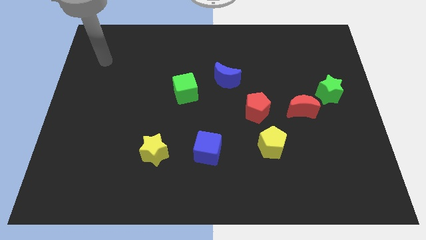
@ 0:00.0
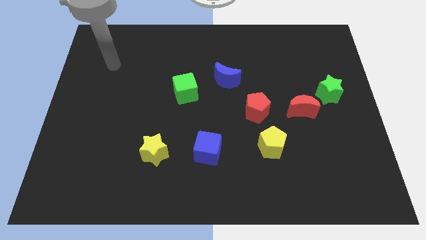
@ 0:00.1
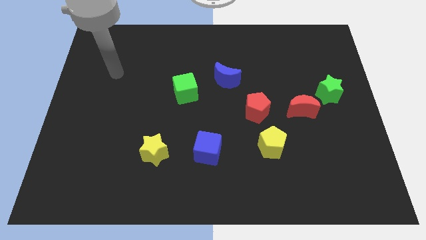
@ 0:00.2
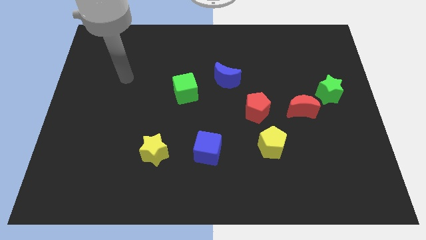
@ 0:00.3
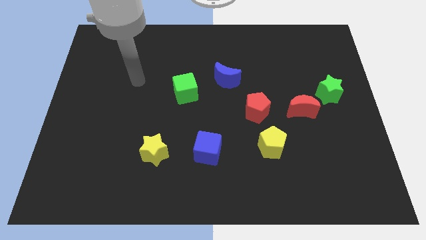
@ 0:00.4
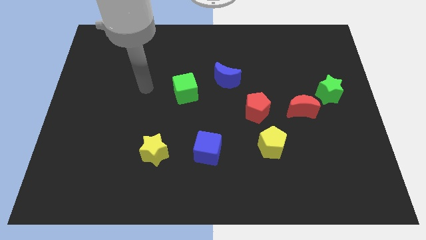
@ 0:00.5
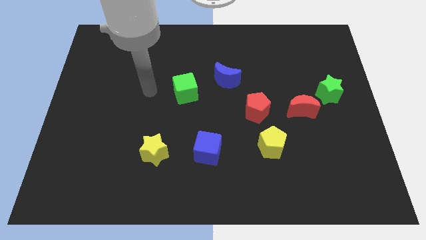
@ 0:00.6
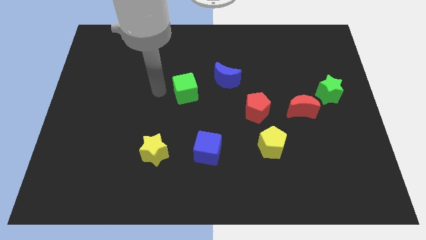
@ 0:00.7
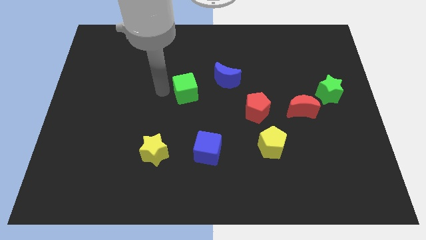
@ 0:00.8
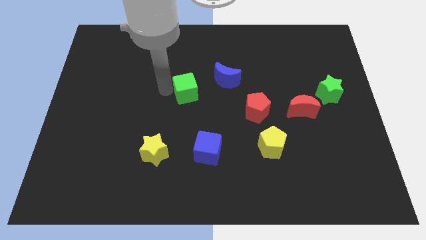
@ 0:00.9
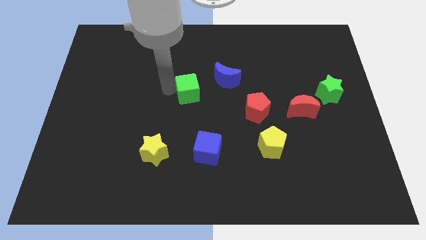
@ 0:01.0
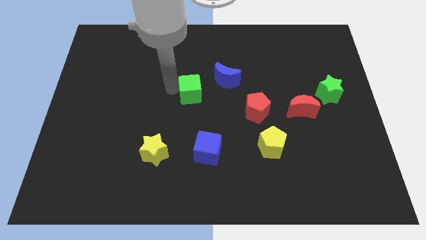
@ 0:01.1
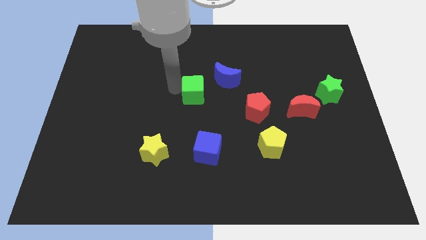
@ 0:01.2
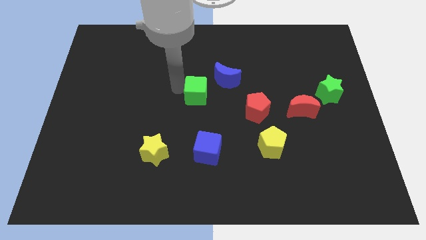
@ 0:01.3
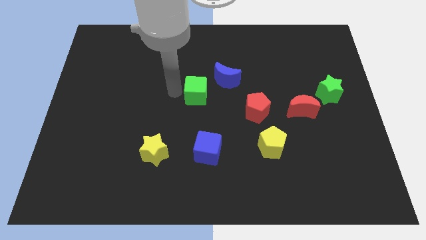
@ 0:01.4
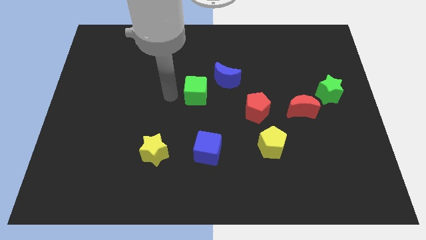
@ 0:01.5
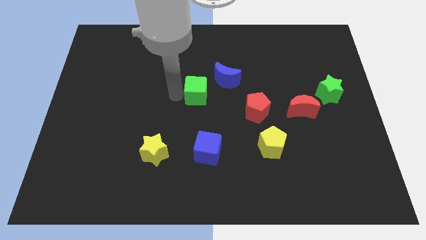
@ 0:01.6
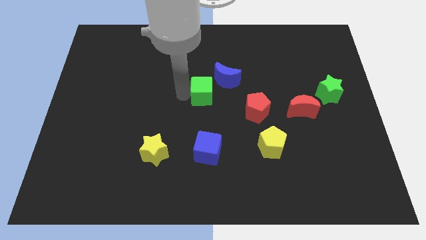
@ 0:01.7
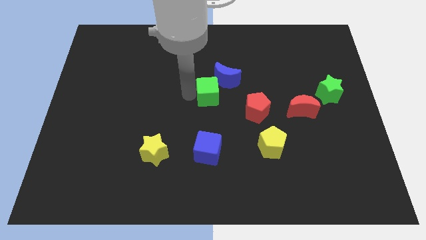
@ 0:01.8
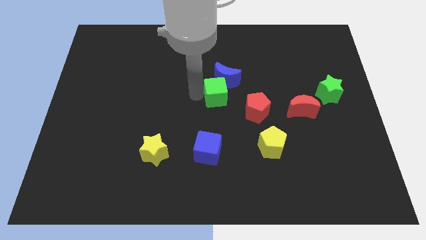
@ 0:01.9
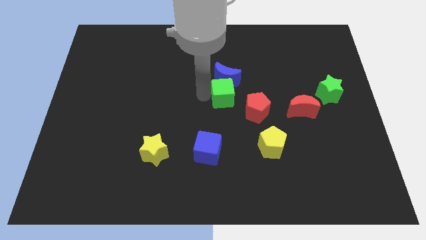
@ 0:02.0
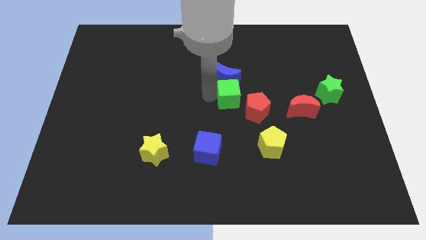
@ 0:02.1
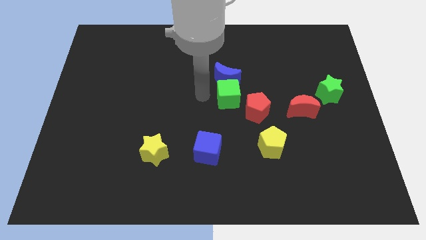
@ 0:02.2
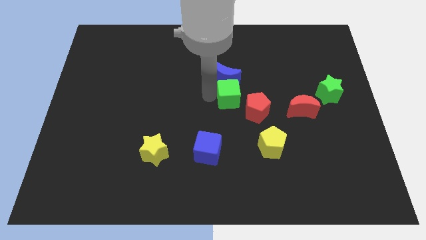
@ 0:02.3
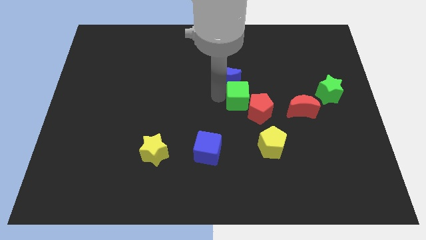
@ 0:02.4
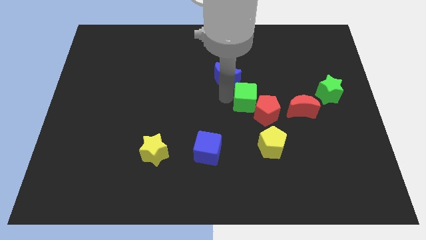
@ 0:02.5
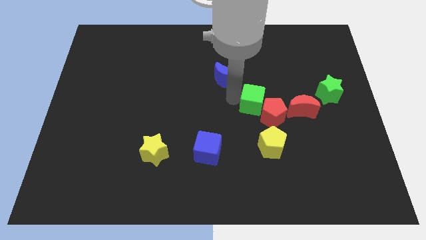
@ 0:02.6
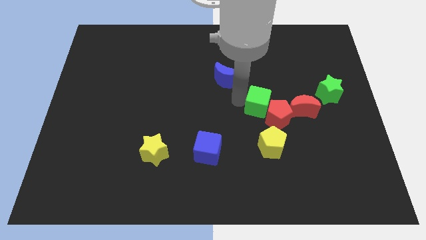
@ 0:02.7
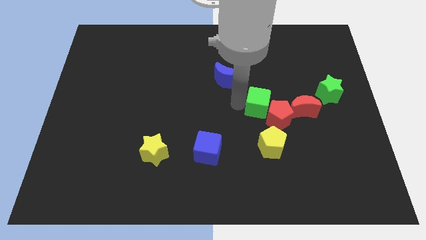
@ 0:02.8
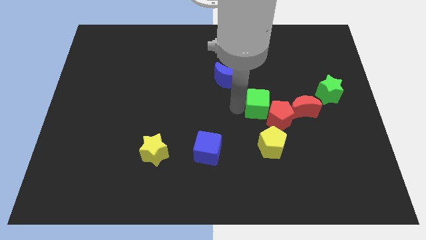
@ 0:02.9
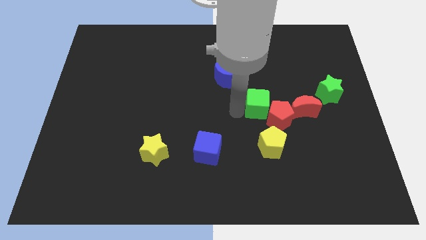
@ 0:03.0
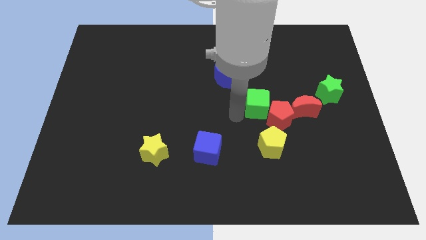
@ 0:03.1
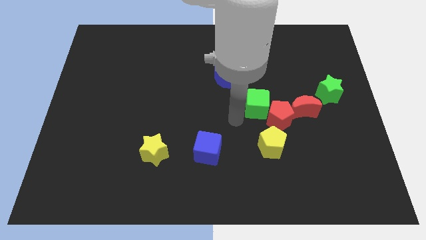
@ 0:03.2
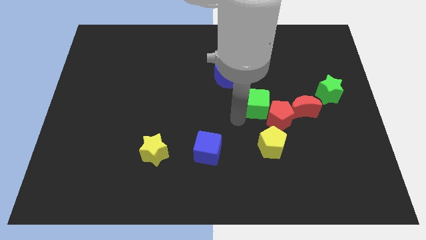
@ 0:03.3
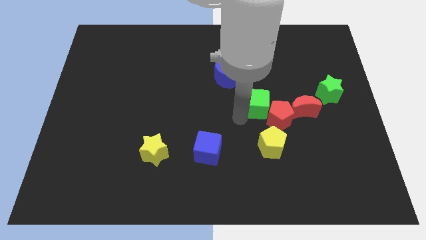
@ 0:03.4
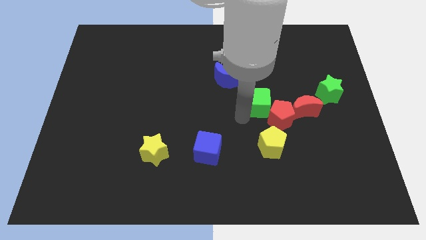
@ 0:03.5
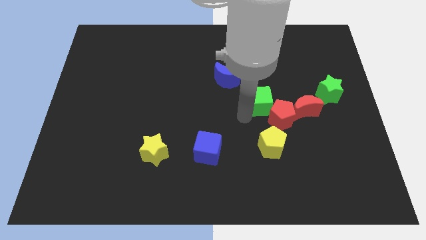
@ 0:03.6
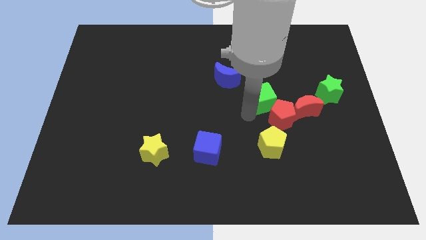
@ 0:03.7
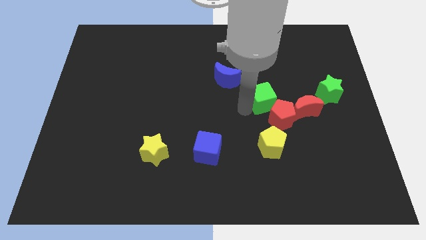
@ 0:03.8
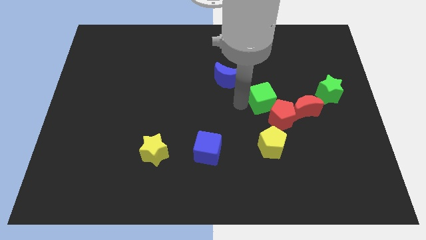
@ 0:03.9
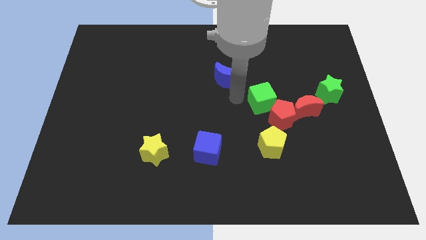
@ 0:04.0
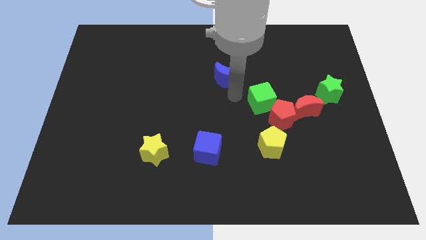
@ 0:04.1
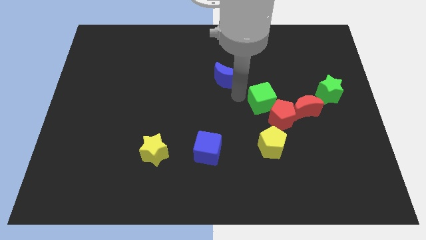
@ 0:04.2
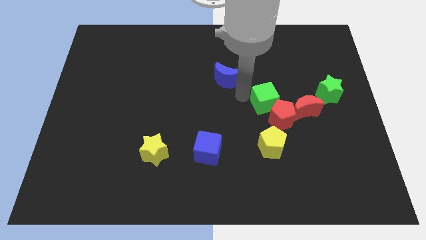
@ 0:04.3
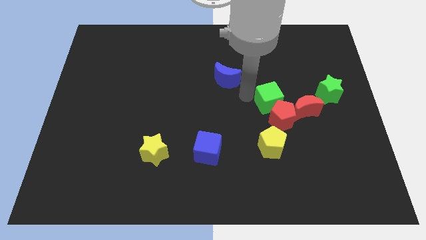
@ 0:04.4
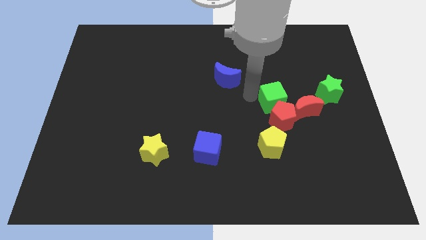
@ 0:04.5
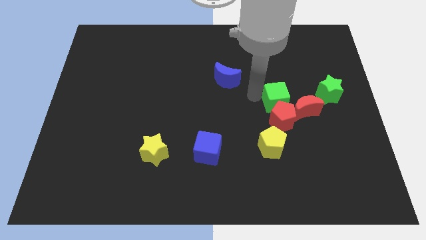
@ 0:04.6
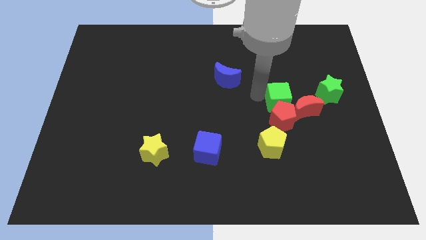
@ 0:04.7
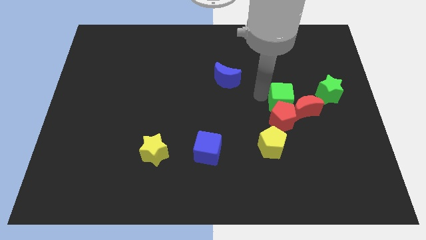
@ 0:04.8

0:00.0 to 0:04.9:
push the green cube next to the red moon

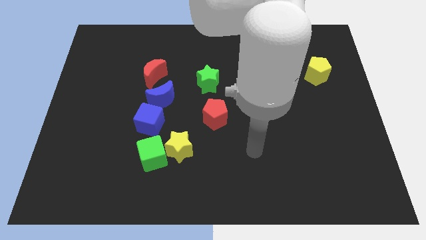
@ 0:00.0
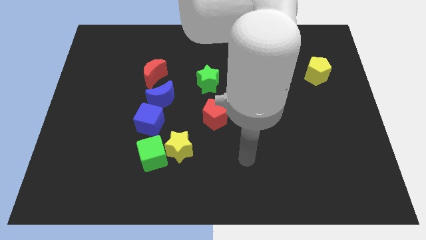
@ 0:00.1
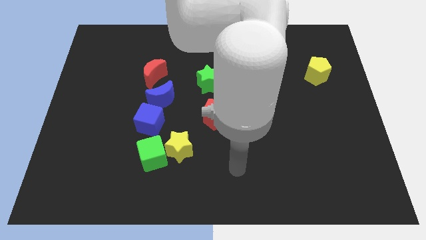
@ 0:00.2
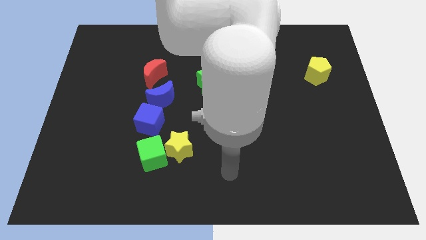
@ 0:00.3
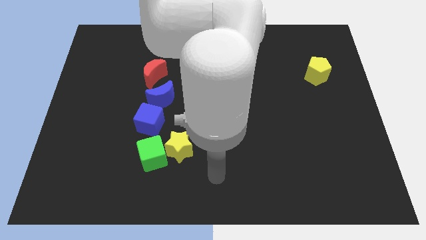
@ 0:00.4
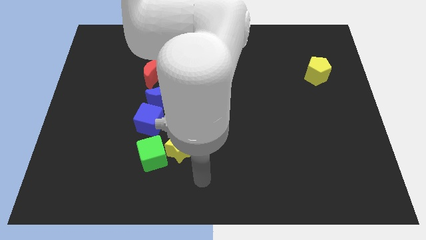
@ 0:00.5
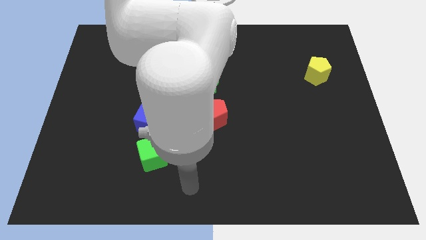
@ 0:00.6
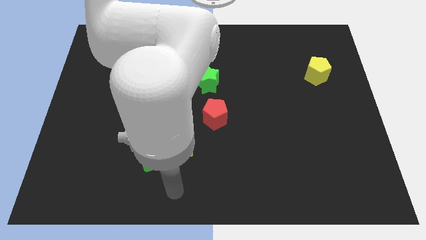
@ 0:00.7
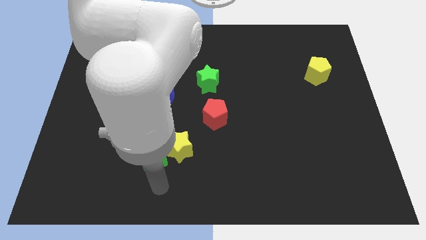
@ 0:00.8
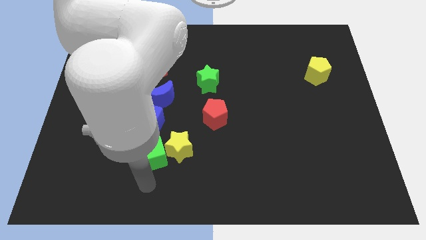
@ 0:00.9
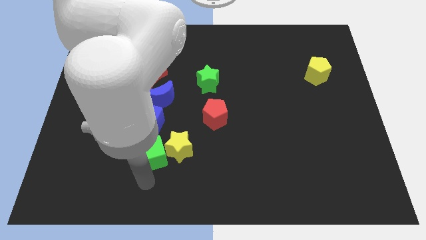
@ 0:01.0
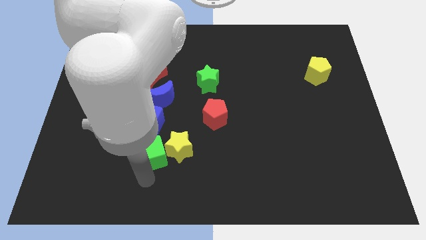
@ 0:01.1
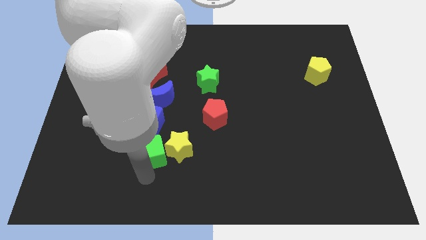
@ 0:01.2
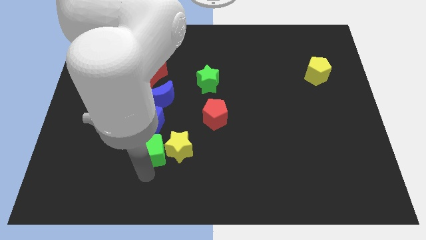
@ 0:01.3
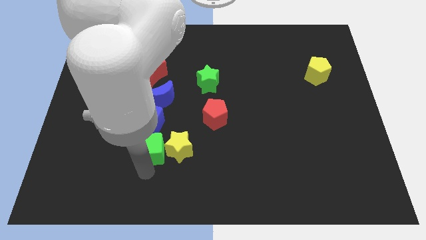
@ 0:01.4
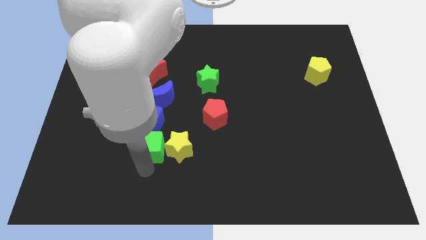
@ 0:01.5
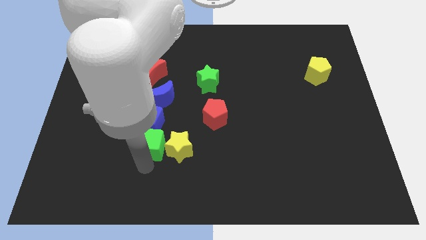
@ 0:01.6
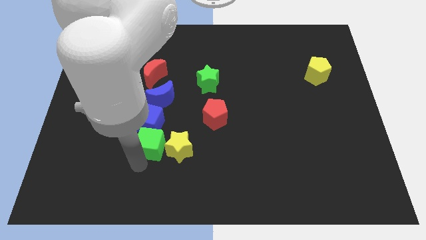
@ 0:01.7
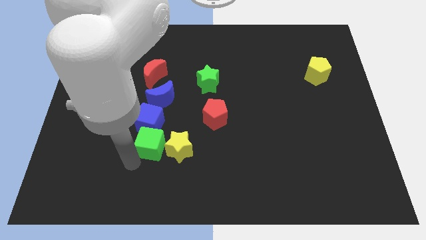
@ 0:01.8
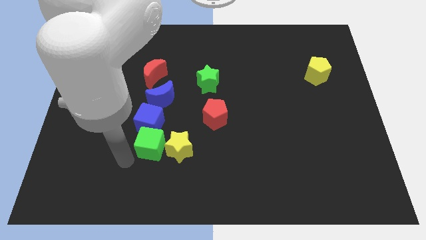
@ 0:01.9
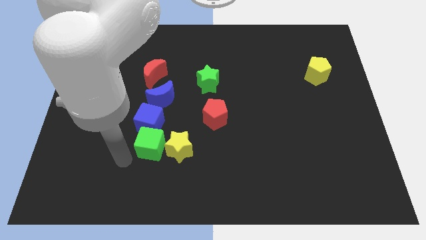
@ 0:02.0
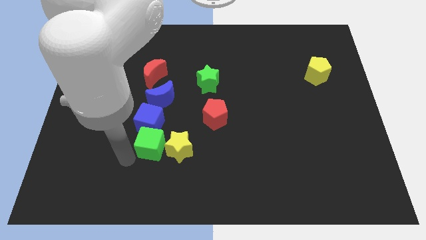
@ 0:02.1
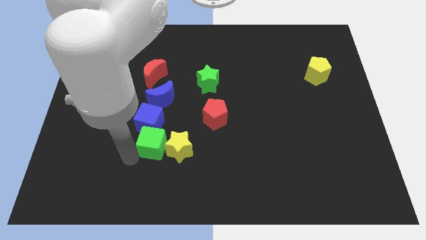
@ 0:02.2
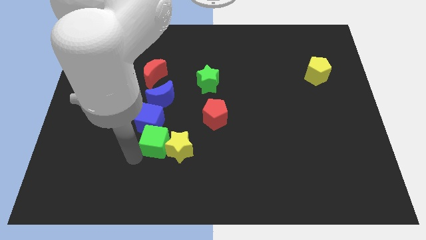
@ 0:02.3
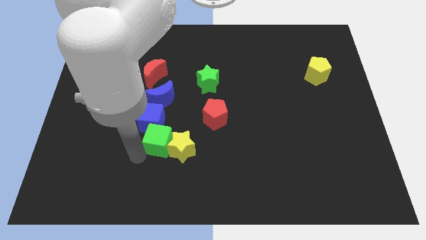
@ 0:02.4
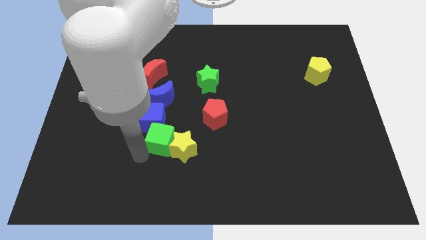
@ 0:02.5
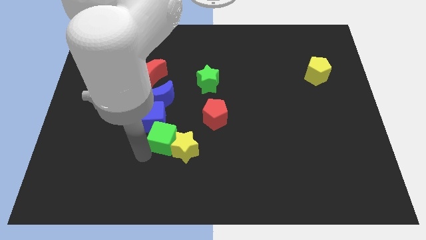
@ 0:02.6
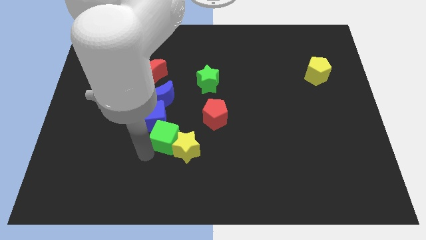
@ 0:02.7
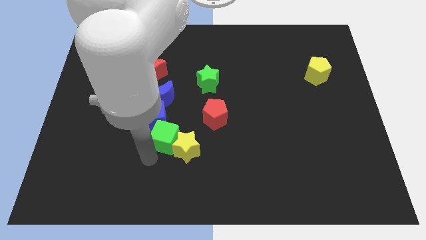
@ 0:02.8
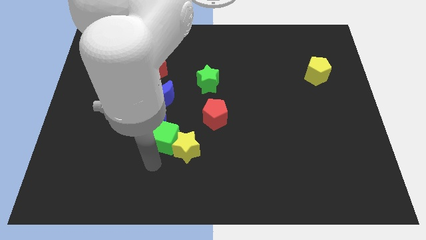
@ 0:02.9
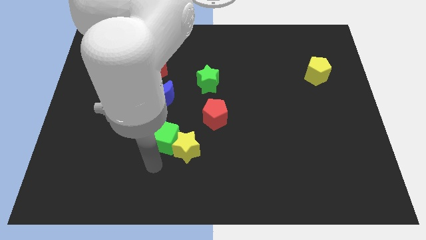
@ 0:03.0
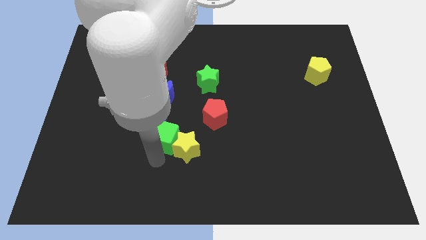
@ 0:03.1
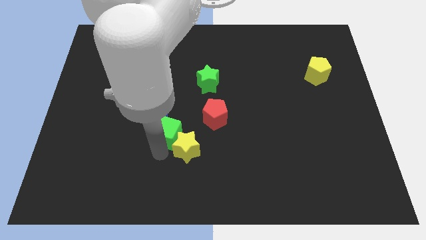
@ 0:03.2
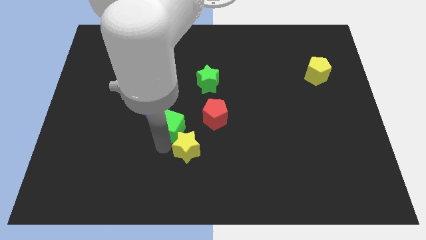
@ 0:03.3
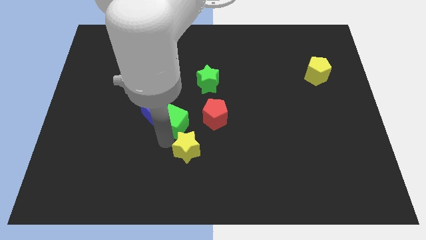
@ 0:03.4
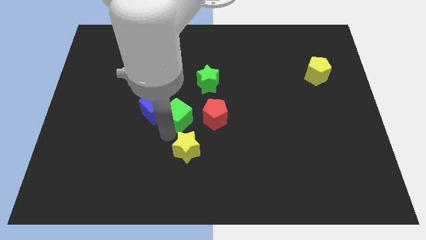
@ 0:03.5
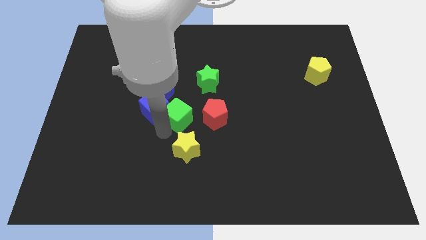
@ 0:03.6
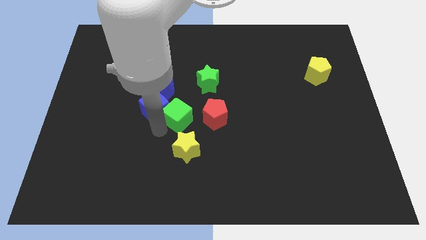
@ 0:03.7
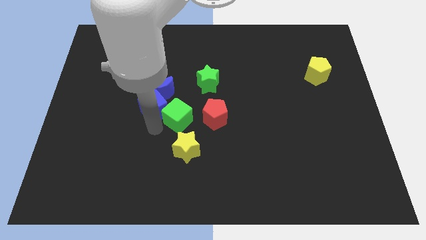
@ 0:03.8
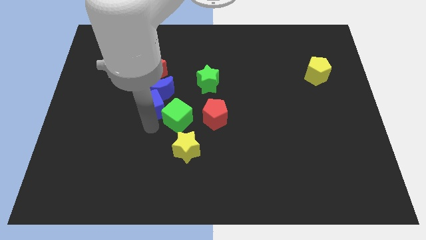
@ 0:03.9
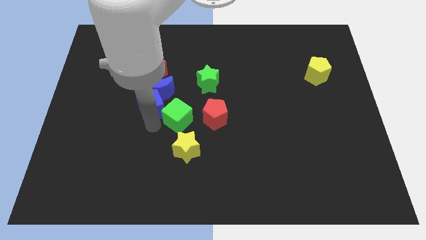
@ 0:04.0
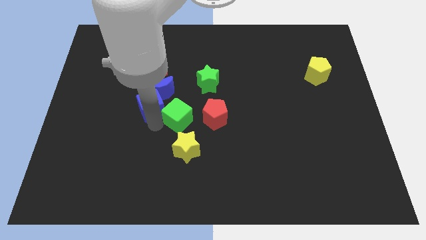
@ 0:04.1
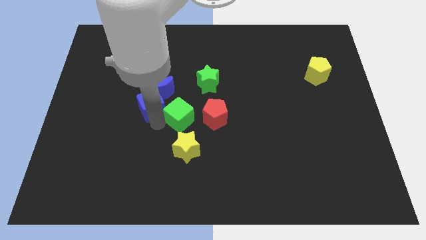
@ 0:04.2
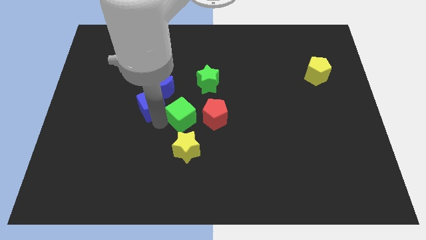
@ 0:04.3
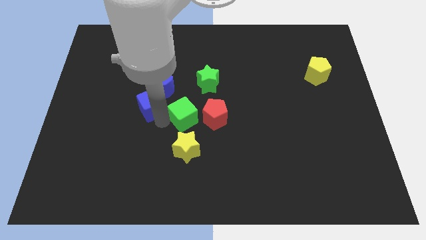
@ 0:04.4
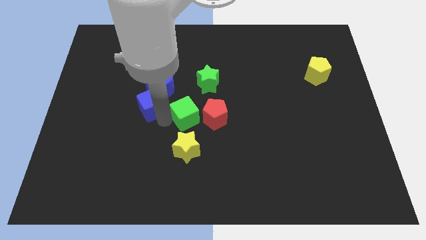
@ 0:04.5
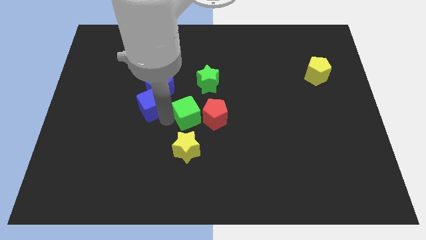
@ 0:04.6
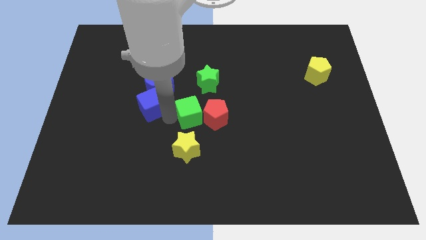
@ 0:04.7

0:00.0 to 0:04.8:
move the green cube to the red pentagon
